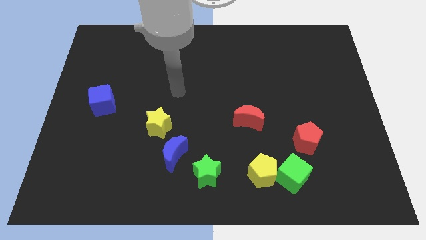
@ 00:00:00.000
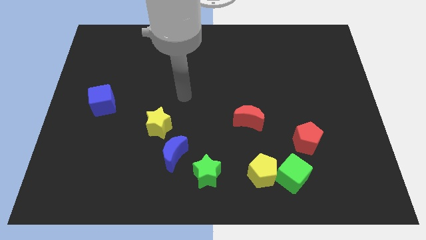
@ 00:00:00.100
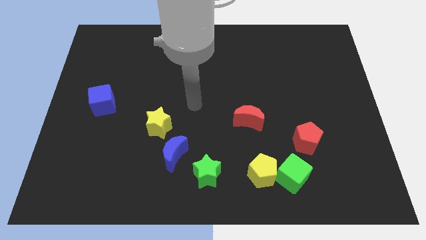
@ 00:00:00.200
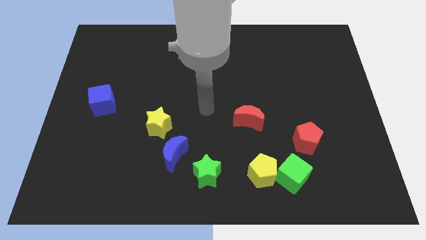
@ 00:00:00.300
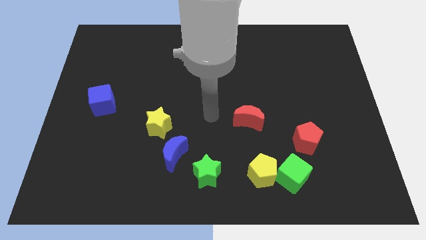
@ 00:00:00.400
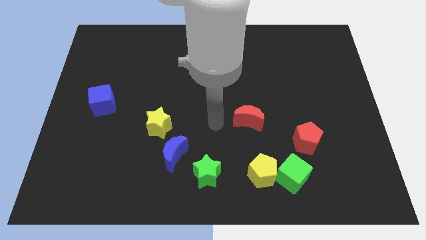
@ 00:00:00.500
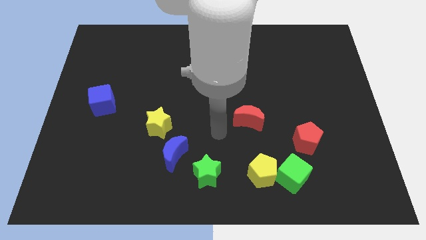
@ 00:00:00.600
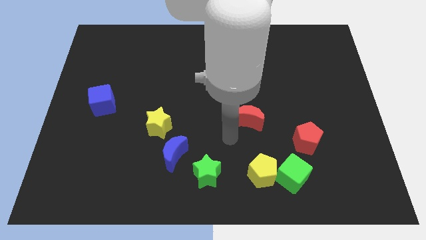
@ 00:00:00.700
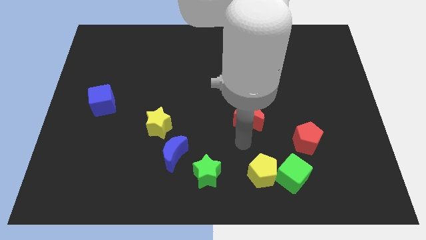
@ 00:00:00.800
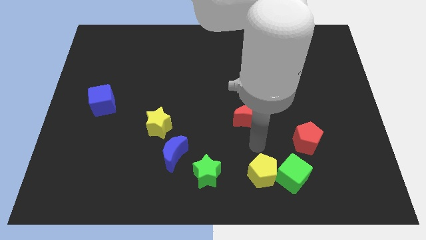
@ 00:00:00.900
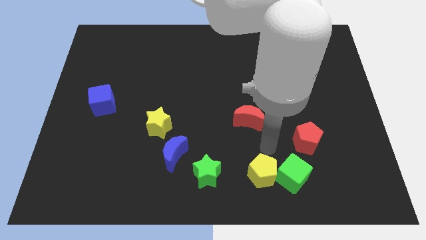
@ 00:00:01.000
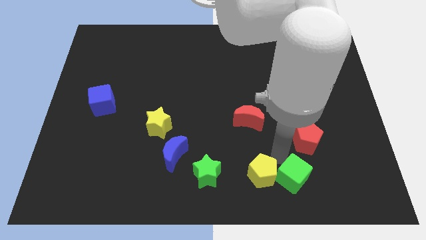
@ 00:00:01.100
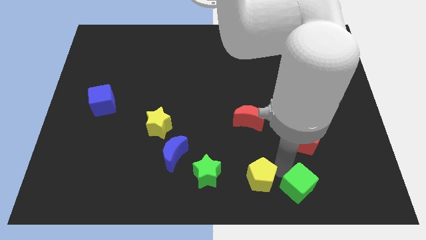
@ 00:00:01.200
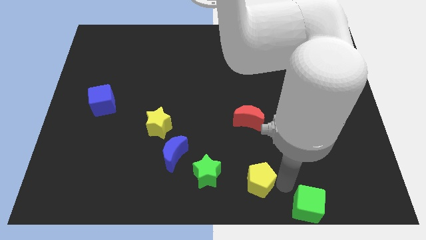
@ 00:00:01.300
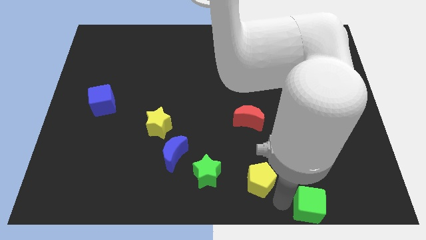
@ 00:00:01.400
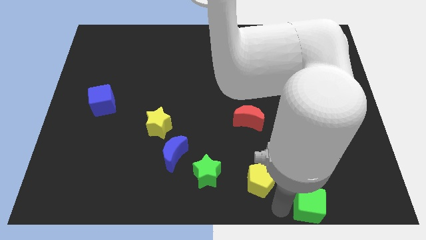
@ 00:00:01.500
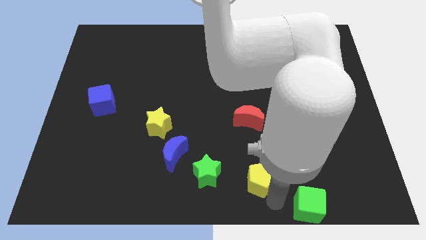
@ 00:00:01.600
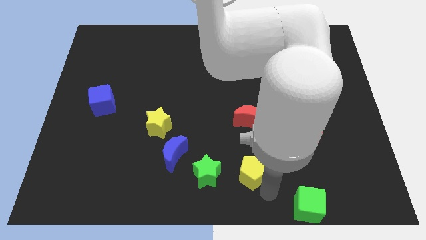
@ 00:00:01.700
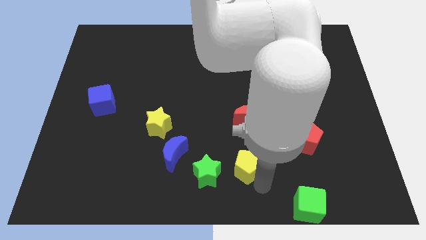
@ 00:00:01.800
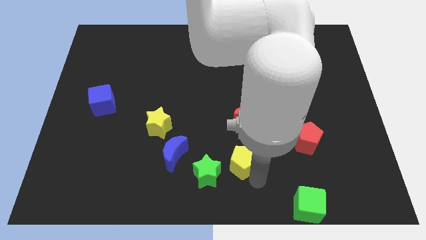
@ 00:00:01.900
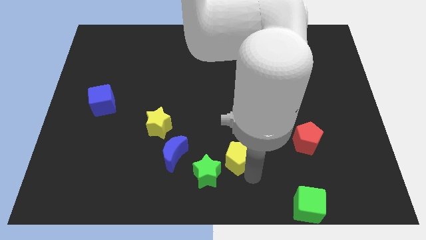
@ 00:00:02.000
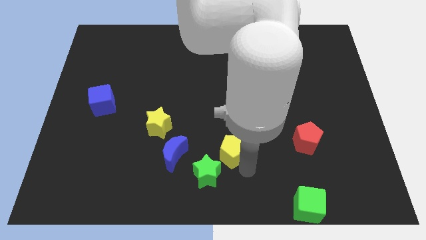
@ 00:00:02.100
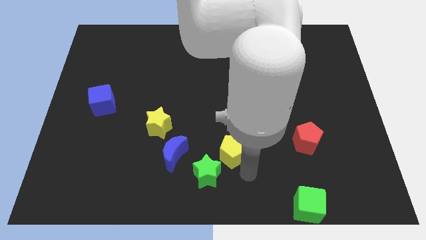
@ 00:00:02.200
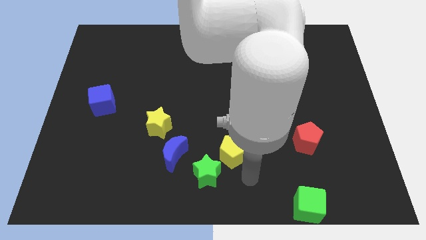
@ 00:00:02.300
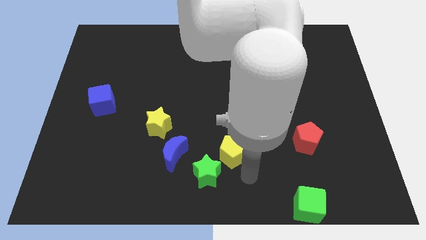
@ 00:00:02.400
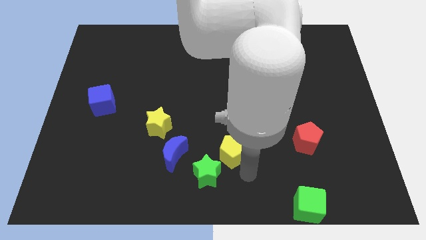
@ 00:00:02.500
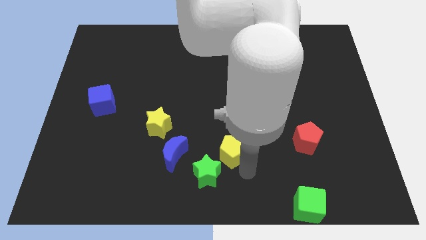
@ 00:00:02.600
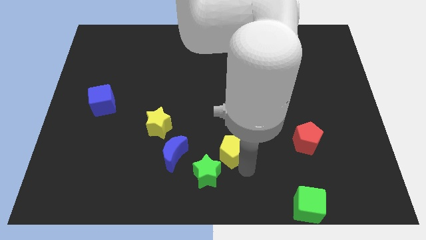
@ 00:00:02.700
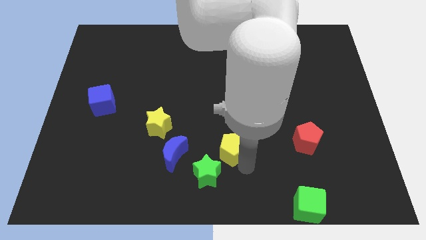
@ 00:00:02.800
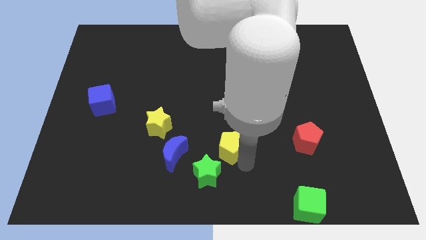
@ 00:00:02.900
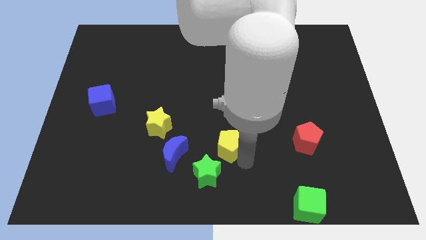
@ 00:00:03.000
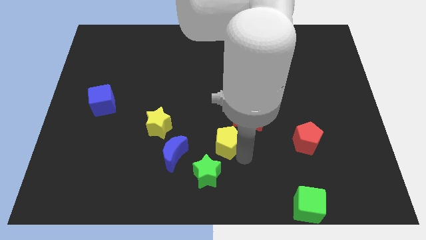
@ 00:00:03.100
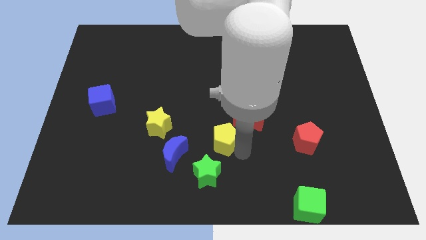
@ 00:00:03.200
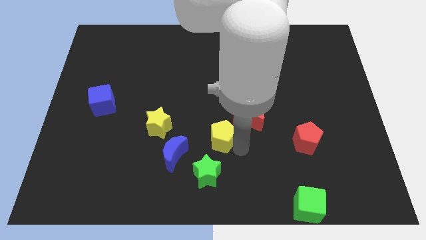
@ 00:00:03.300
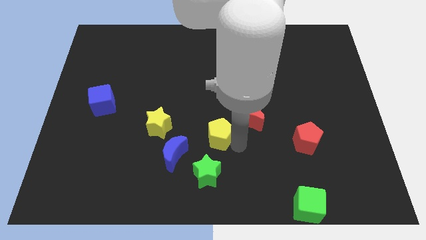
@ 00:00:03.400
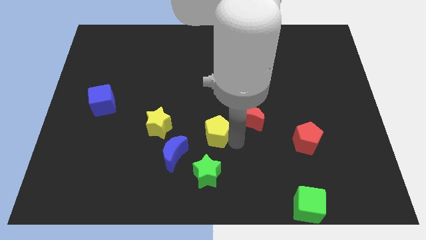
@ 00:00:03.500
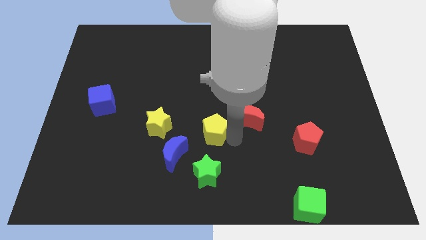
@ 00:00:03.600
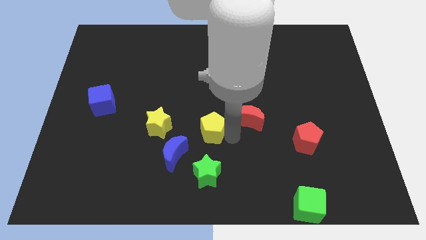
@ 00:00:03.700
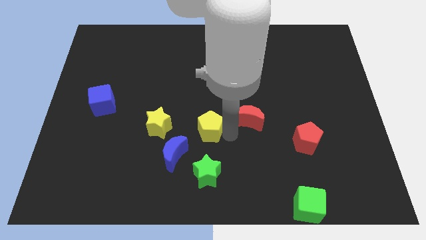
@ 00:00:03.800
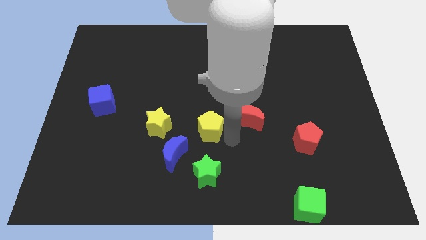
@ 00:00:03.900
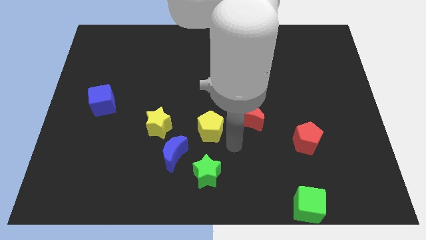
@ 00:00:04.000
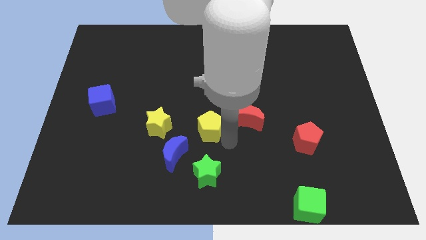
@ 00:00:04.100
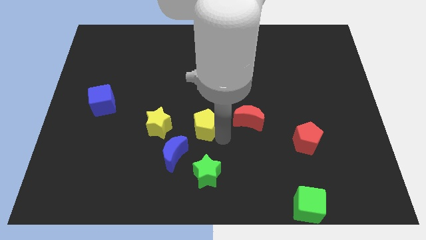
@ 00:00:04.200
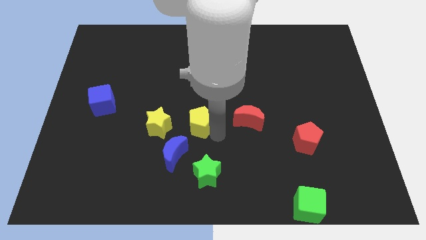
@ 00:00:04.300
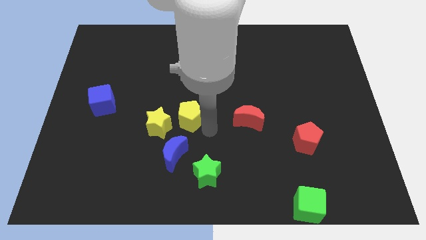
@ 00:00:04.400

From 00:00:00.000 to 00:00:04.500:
push the yellow pentagon up and left

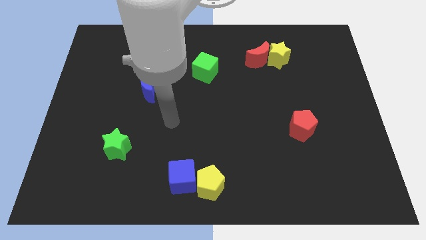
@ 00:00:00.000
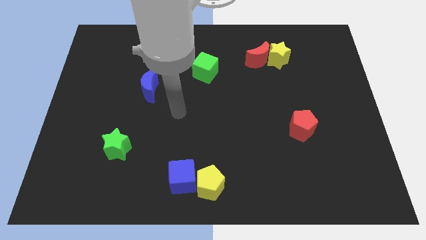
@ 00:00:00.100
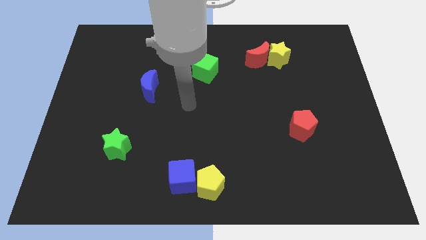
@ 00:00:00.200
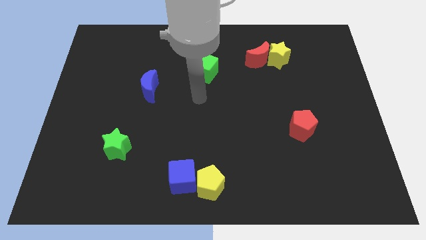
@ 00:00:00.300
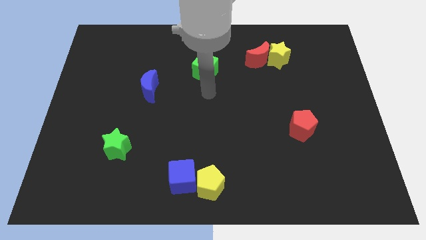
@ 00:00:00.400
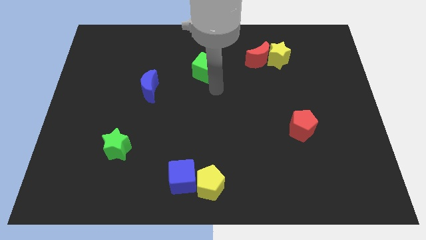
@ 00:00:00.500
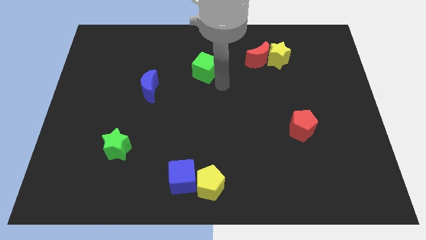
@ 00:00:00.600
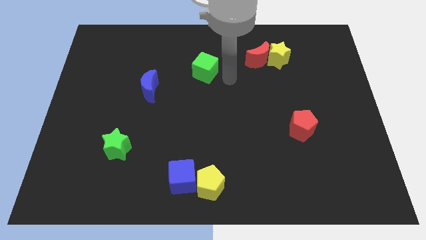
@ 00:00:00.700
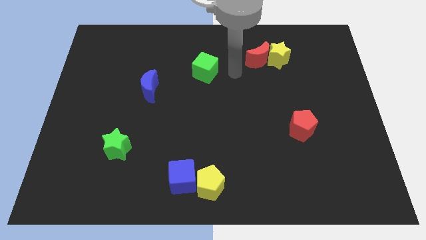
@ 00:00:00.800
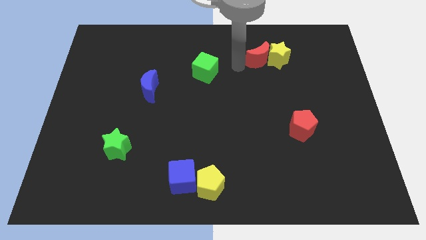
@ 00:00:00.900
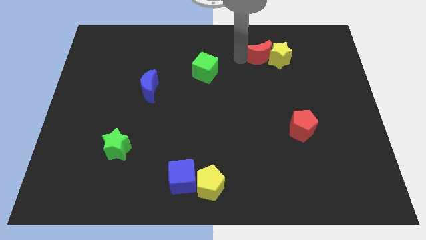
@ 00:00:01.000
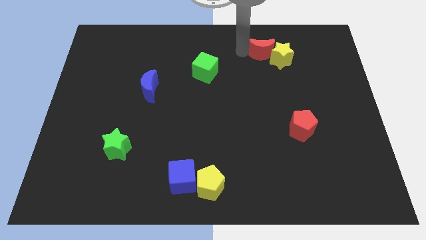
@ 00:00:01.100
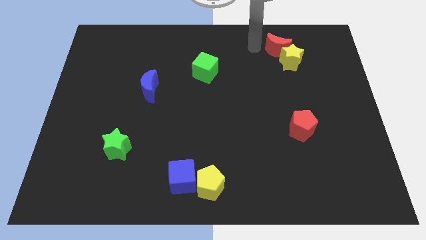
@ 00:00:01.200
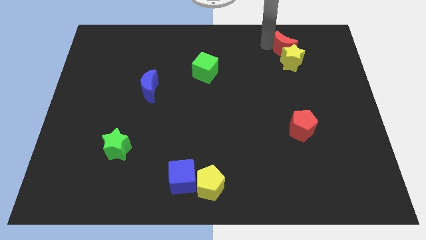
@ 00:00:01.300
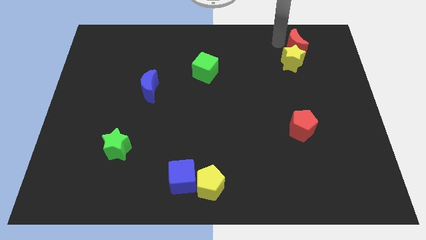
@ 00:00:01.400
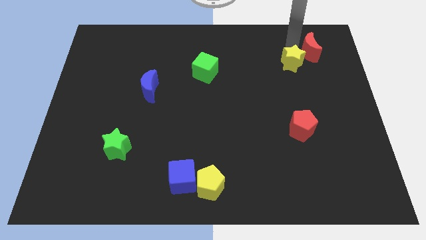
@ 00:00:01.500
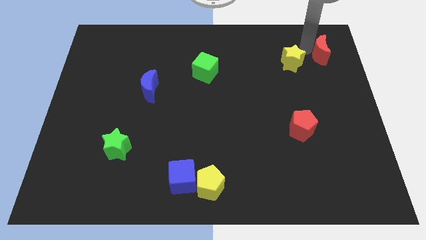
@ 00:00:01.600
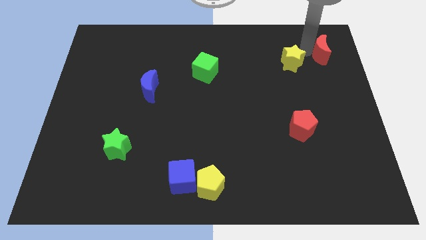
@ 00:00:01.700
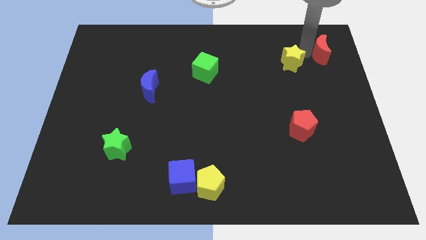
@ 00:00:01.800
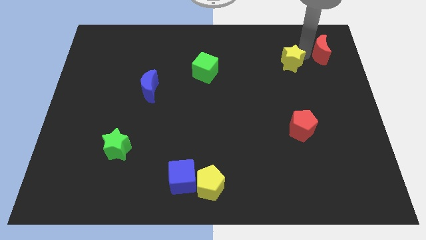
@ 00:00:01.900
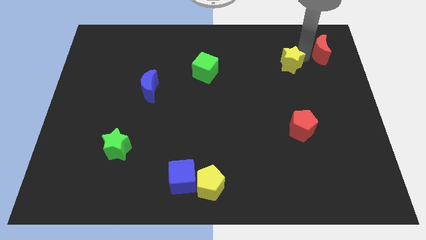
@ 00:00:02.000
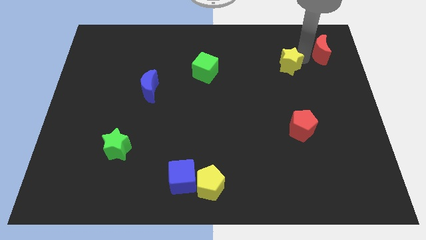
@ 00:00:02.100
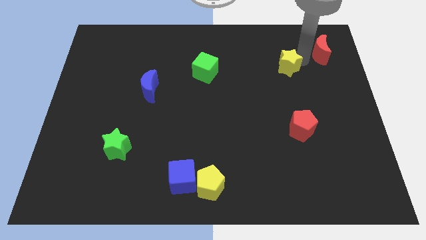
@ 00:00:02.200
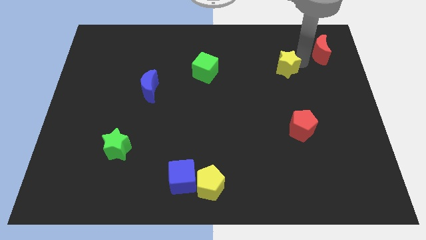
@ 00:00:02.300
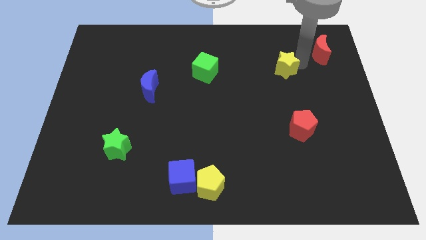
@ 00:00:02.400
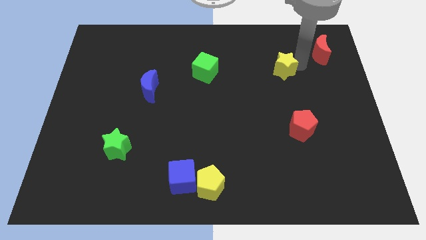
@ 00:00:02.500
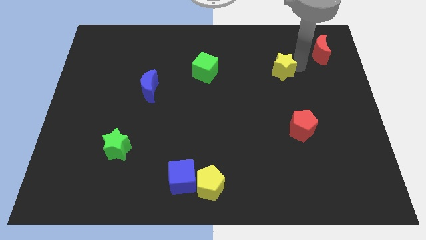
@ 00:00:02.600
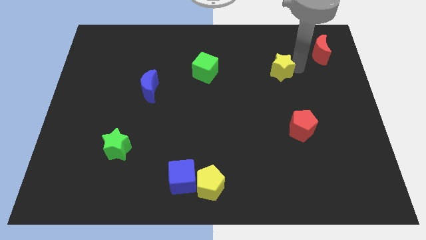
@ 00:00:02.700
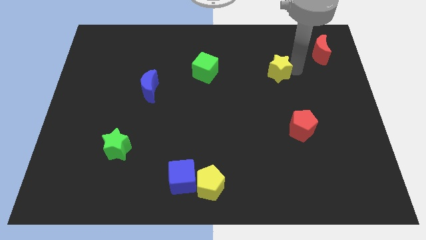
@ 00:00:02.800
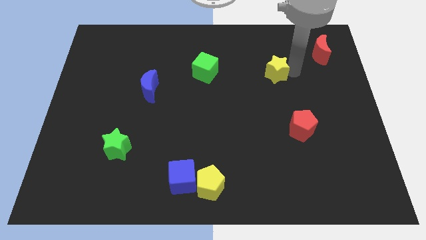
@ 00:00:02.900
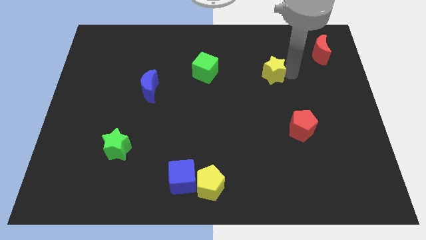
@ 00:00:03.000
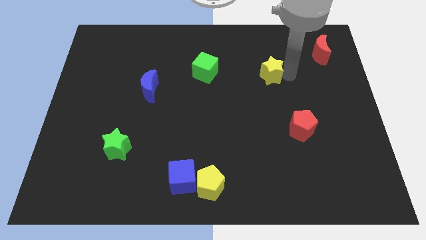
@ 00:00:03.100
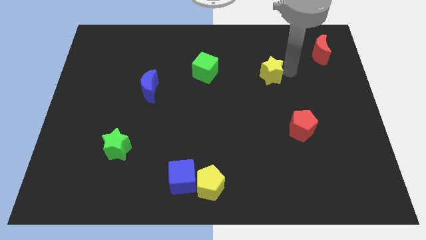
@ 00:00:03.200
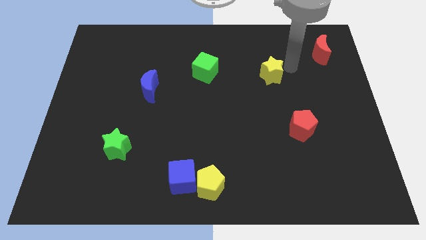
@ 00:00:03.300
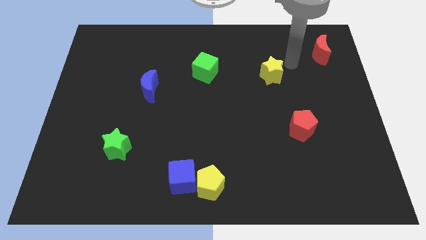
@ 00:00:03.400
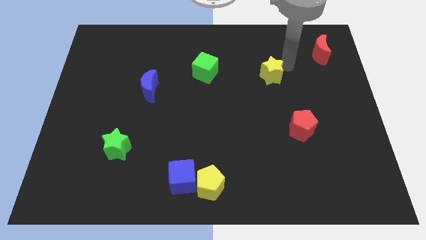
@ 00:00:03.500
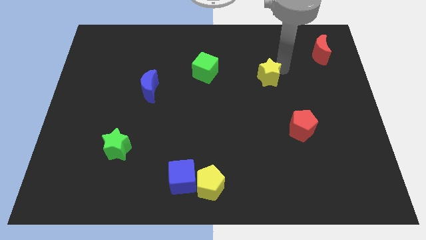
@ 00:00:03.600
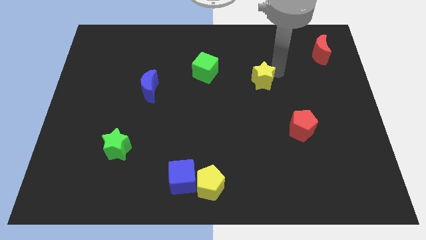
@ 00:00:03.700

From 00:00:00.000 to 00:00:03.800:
slightly move the yellow star down and left
